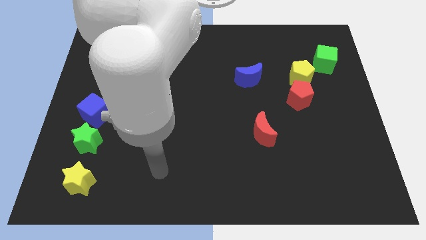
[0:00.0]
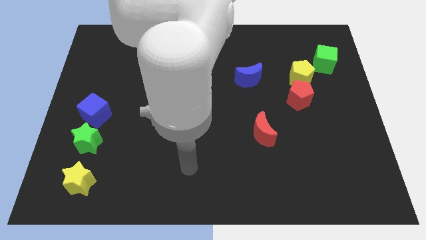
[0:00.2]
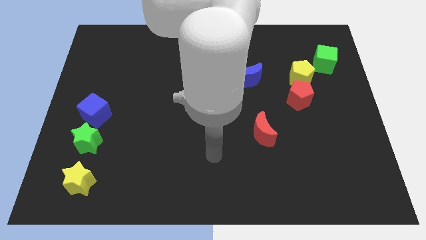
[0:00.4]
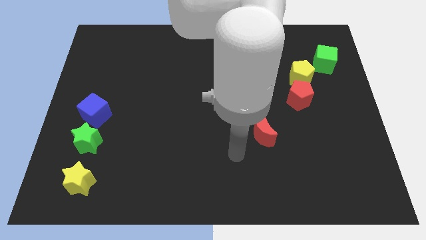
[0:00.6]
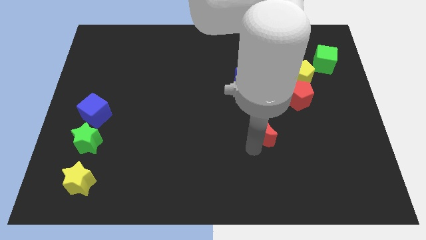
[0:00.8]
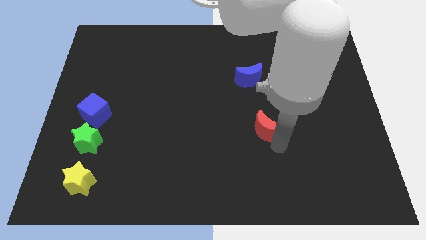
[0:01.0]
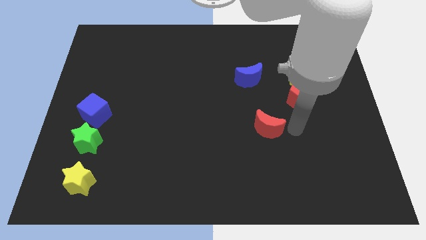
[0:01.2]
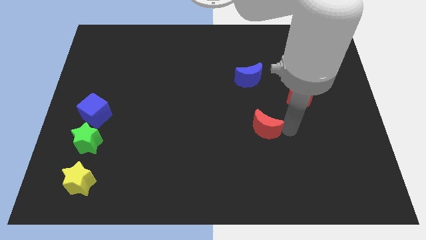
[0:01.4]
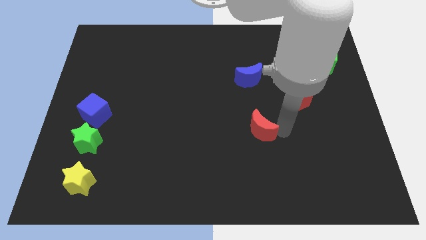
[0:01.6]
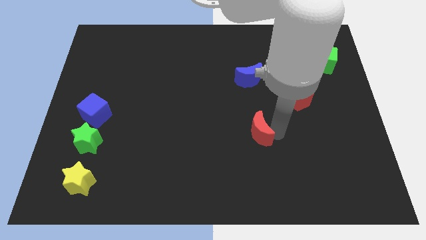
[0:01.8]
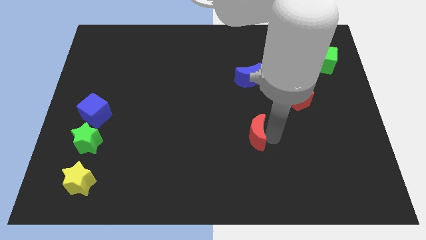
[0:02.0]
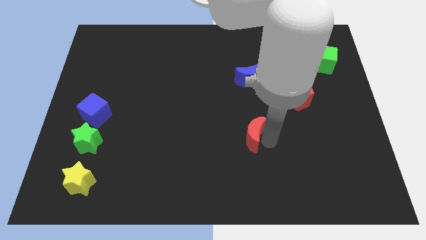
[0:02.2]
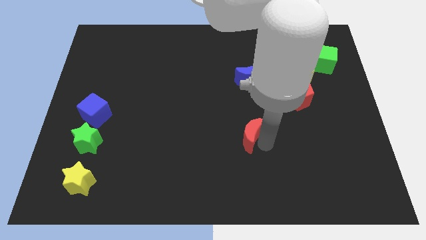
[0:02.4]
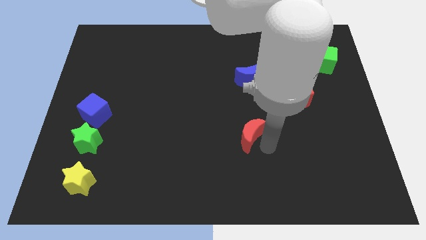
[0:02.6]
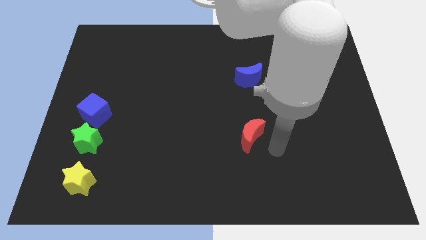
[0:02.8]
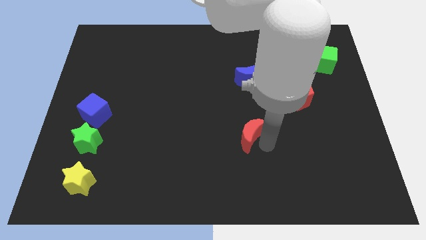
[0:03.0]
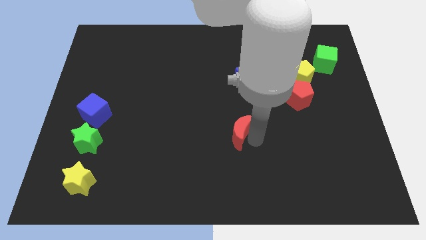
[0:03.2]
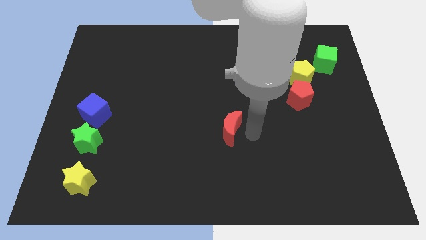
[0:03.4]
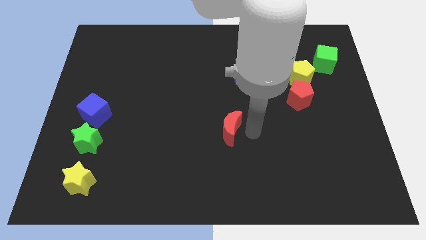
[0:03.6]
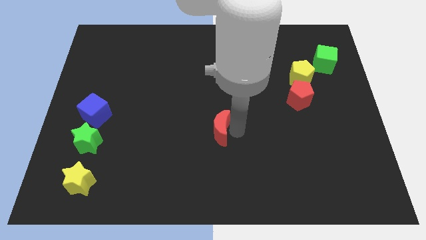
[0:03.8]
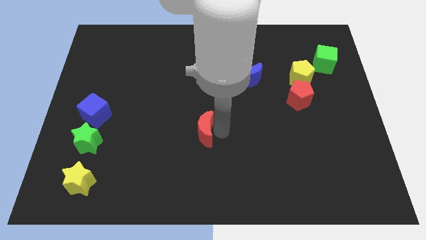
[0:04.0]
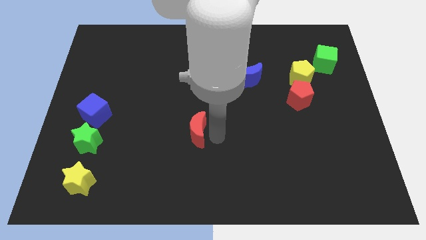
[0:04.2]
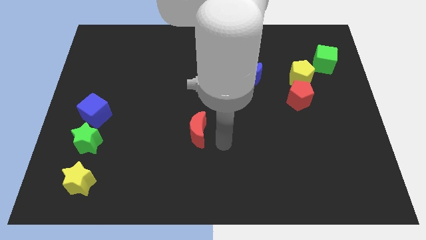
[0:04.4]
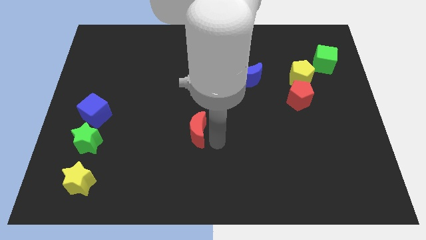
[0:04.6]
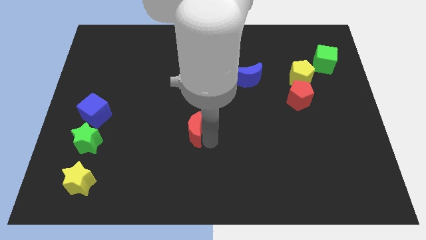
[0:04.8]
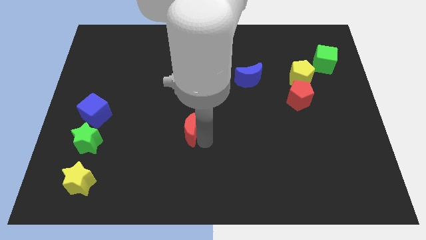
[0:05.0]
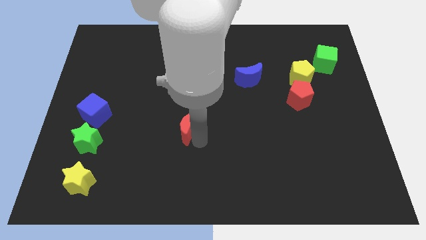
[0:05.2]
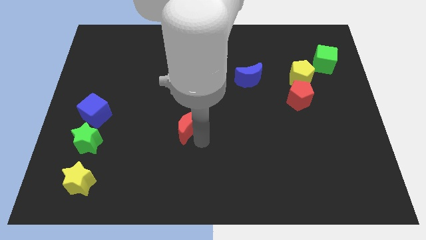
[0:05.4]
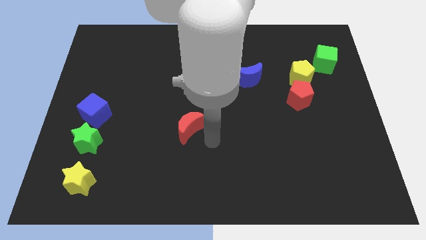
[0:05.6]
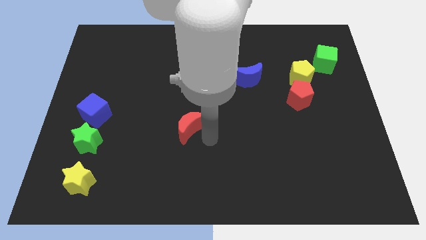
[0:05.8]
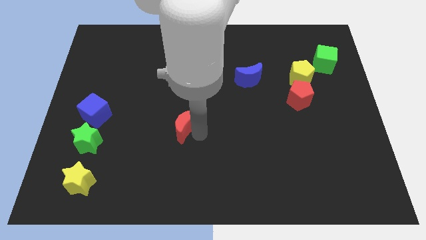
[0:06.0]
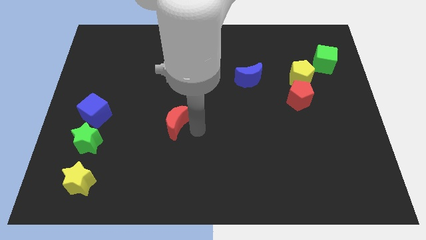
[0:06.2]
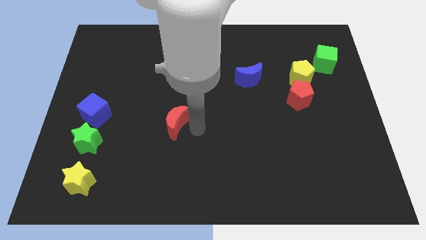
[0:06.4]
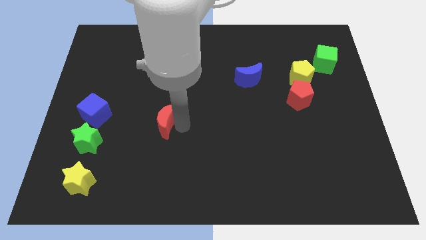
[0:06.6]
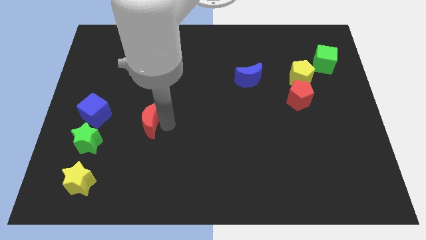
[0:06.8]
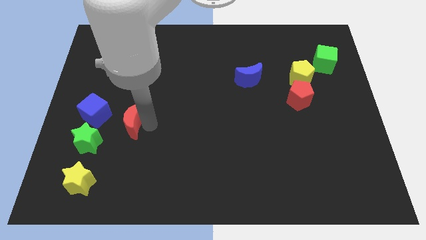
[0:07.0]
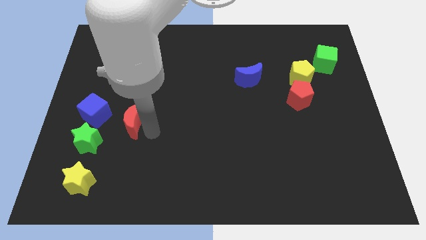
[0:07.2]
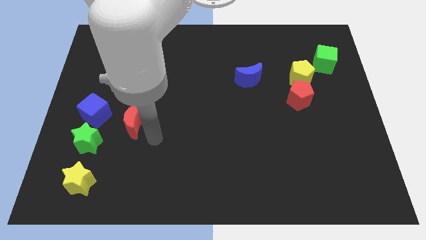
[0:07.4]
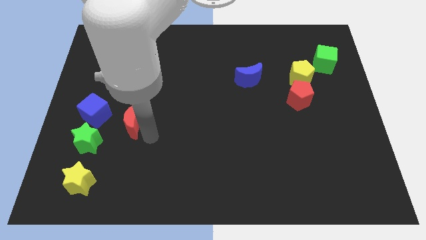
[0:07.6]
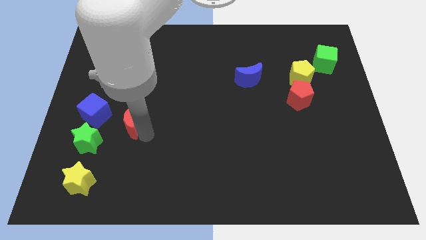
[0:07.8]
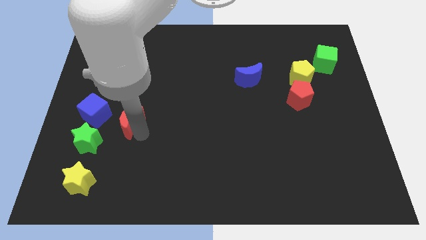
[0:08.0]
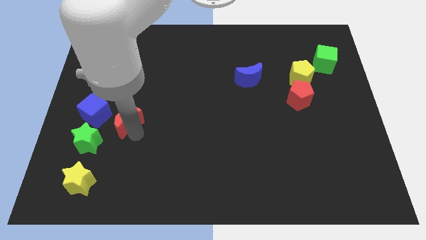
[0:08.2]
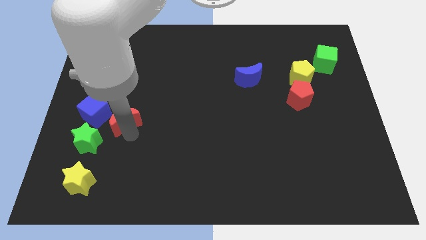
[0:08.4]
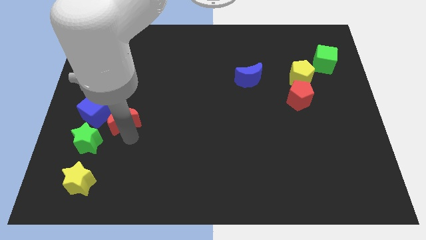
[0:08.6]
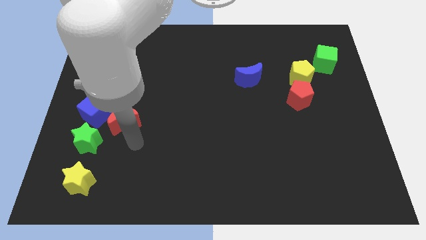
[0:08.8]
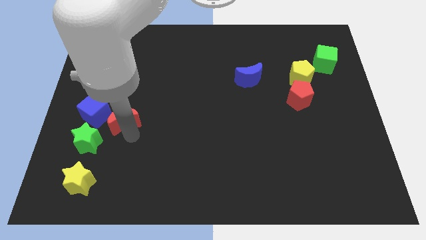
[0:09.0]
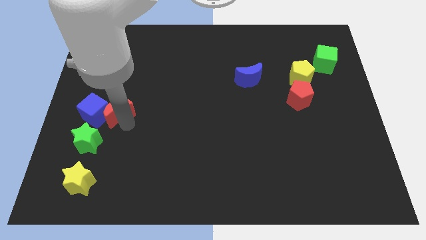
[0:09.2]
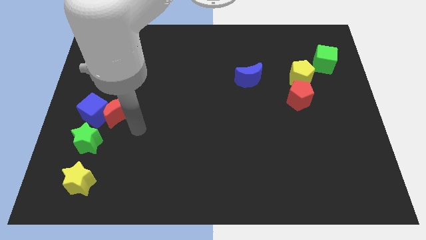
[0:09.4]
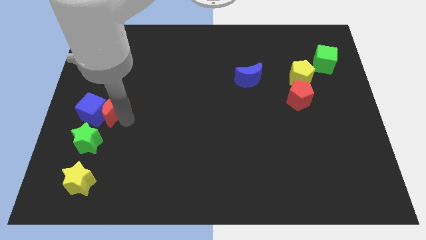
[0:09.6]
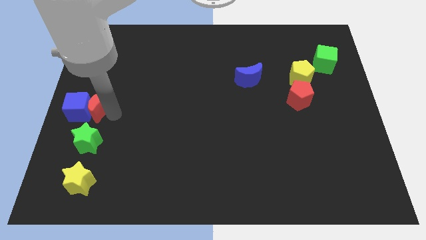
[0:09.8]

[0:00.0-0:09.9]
move the red moon to the left side
